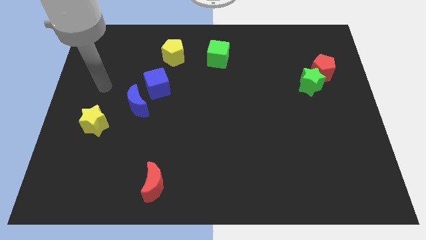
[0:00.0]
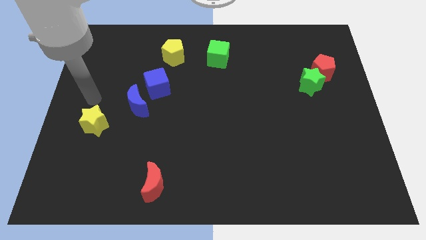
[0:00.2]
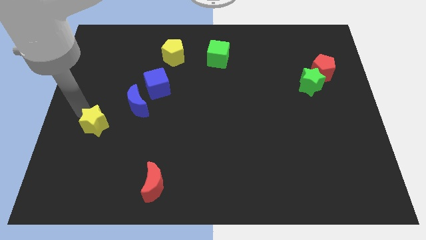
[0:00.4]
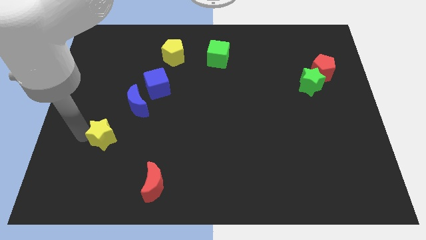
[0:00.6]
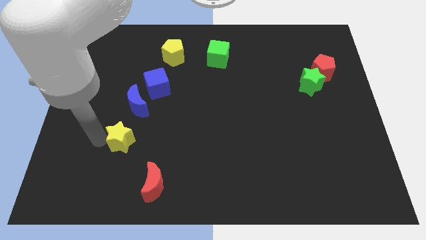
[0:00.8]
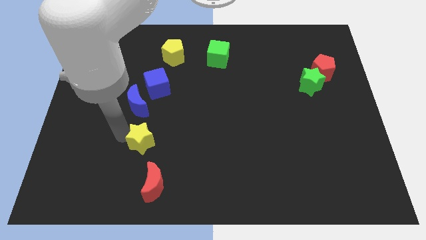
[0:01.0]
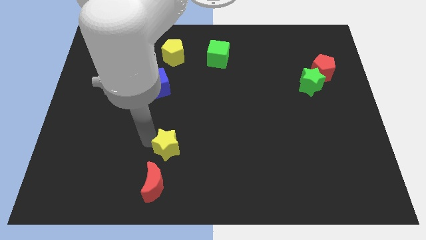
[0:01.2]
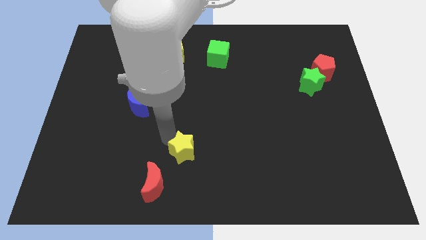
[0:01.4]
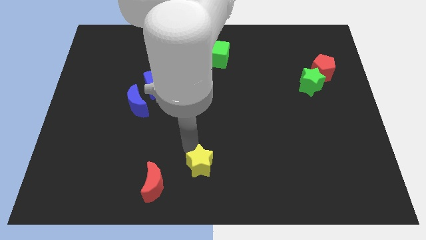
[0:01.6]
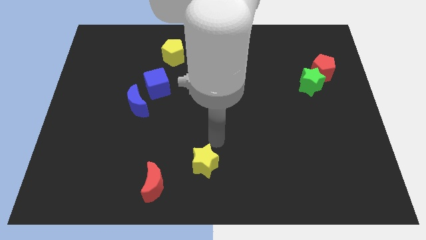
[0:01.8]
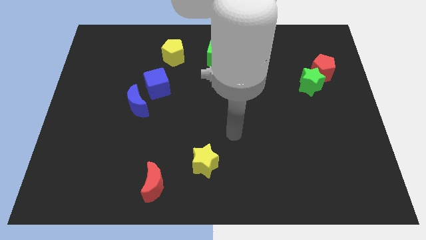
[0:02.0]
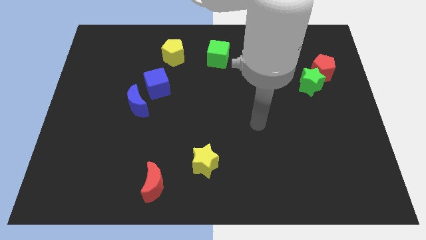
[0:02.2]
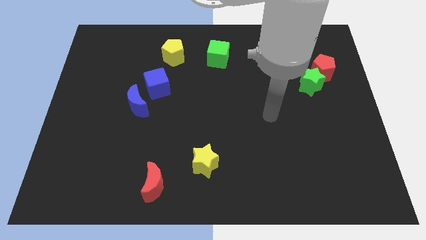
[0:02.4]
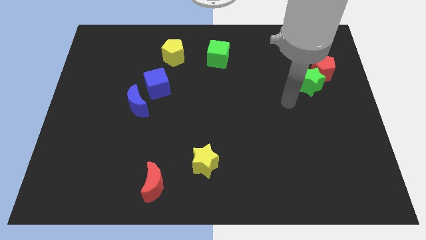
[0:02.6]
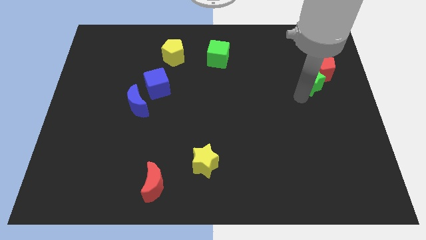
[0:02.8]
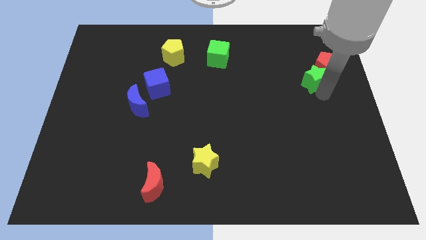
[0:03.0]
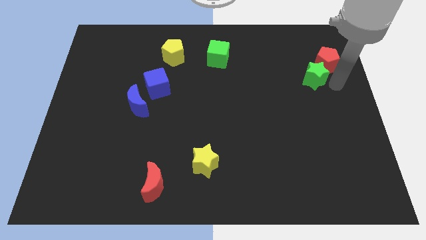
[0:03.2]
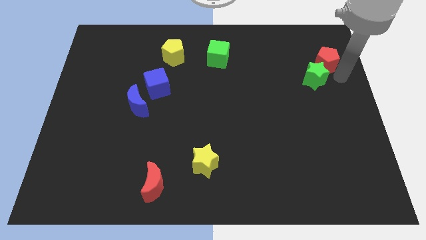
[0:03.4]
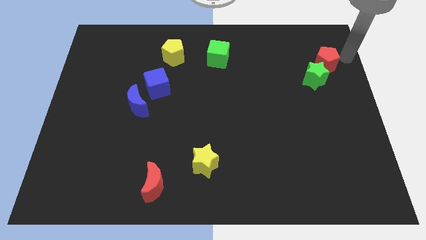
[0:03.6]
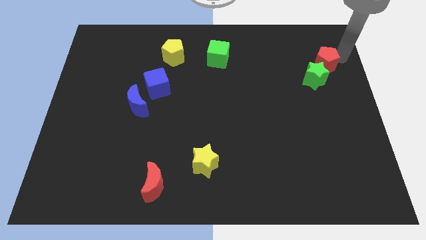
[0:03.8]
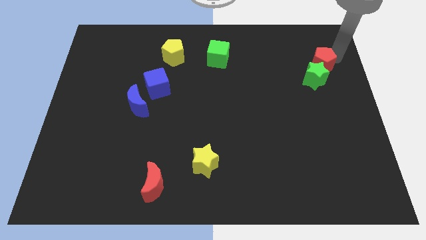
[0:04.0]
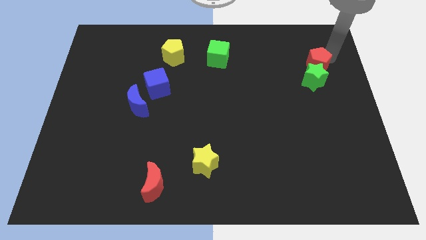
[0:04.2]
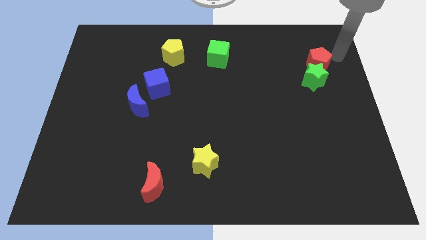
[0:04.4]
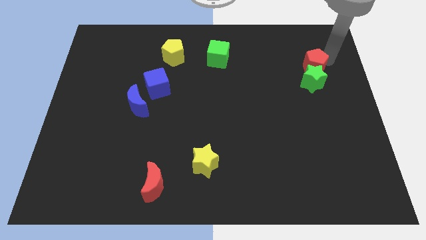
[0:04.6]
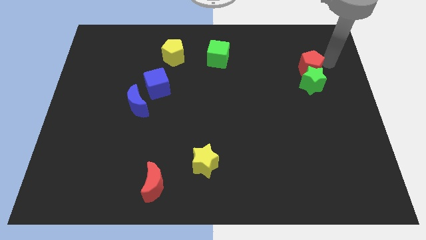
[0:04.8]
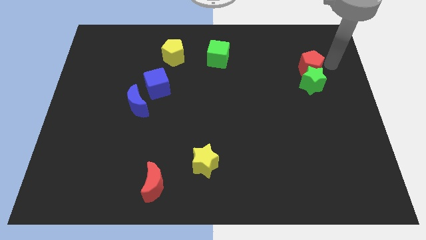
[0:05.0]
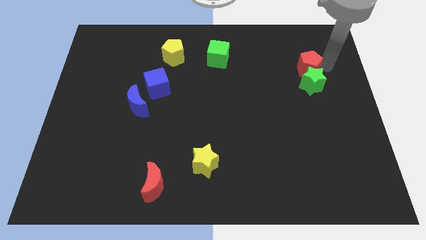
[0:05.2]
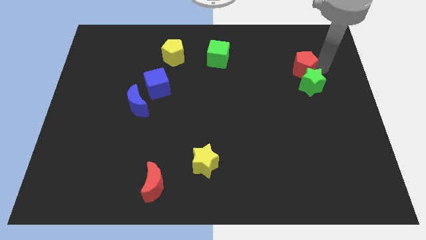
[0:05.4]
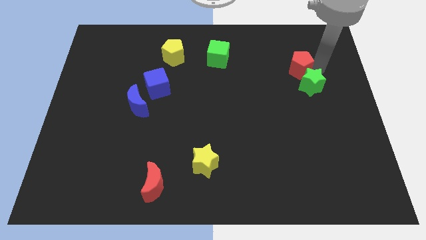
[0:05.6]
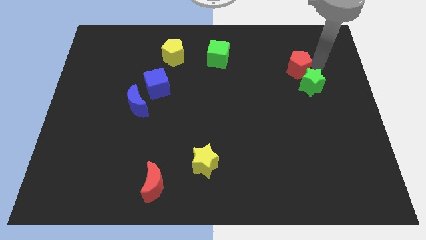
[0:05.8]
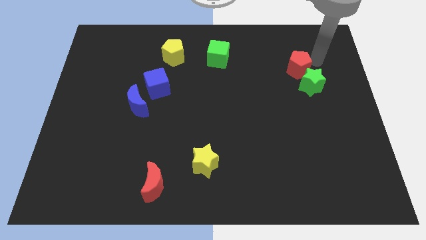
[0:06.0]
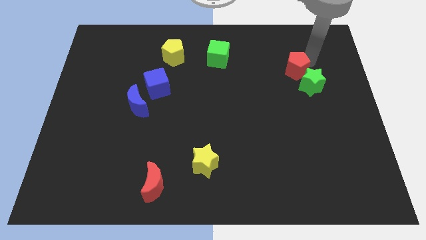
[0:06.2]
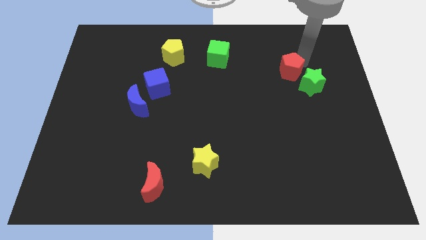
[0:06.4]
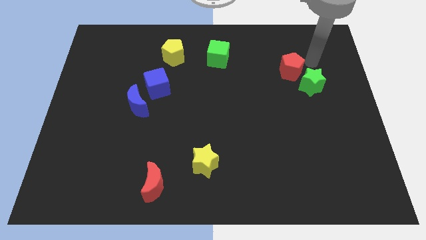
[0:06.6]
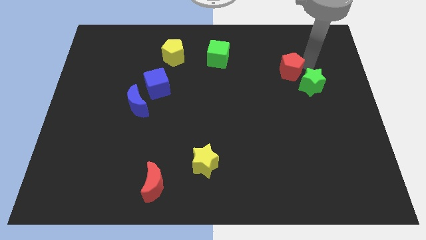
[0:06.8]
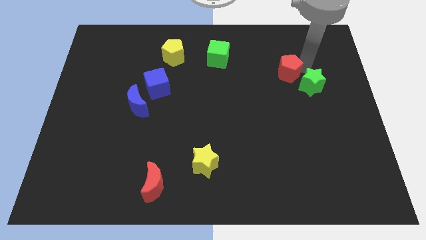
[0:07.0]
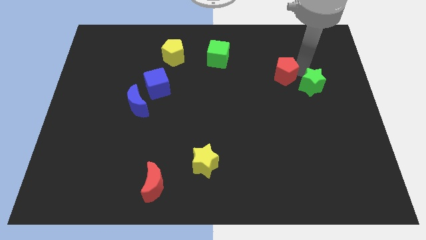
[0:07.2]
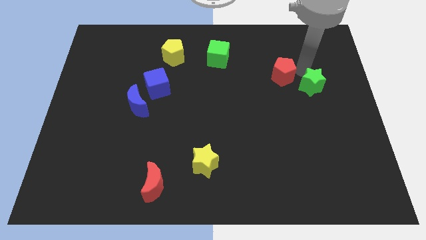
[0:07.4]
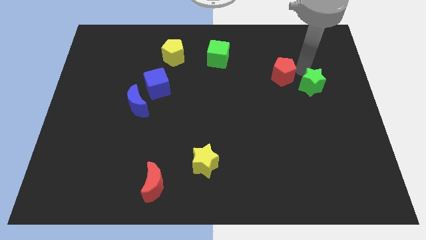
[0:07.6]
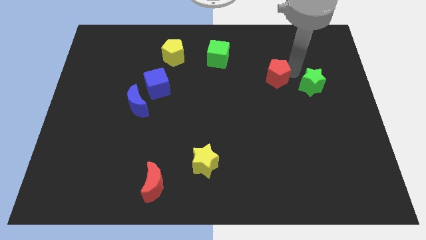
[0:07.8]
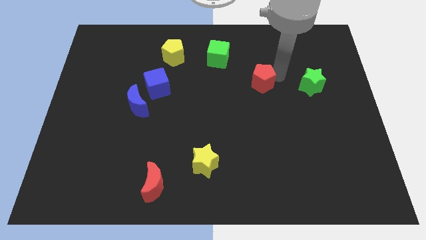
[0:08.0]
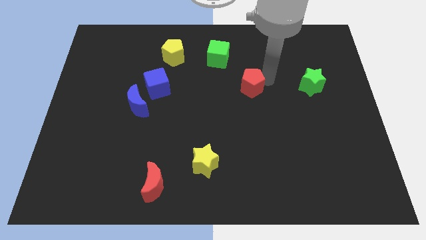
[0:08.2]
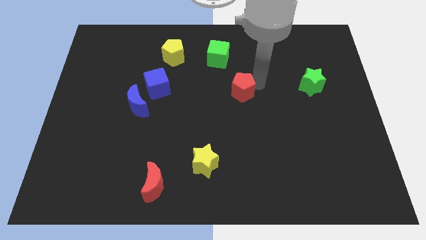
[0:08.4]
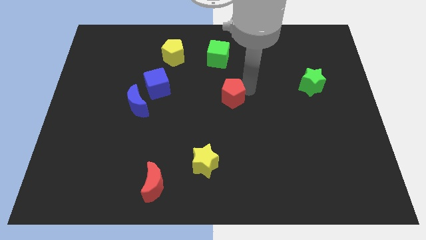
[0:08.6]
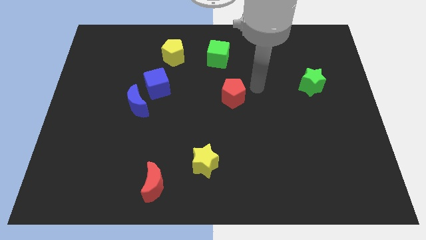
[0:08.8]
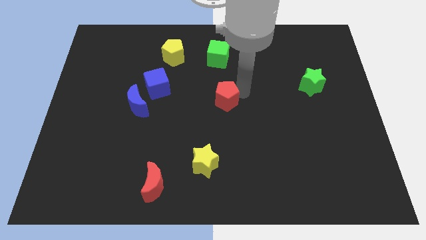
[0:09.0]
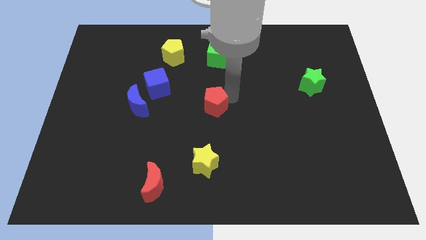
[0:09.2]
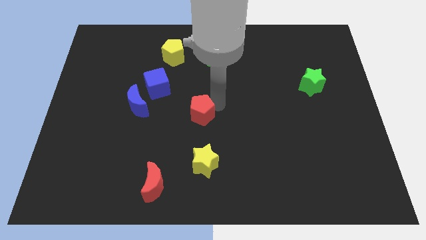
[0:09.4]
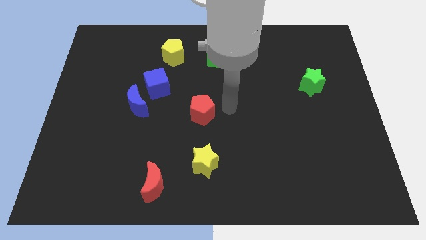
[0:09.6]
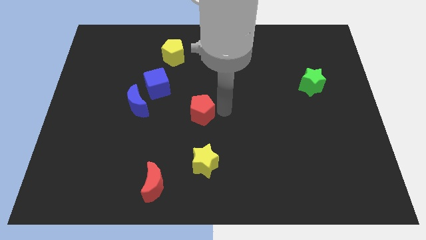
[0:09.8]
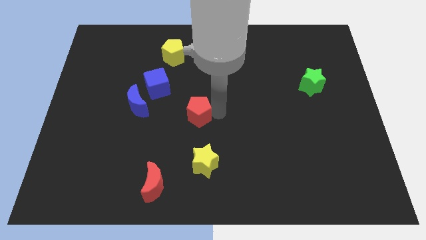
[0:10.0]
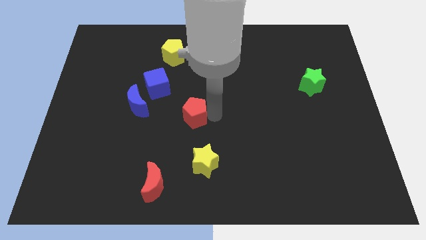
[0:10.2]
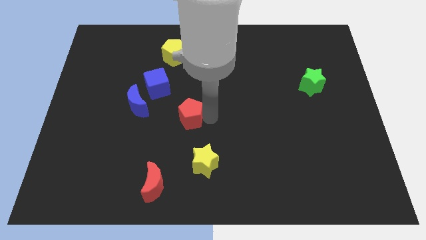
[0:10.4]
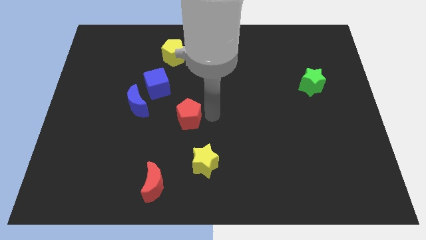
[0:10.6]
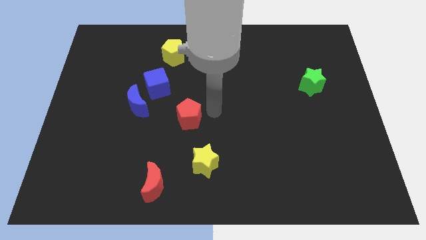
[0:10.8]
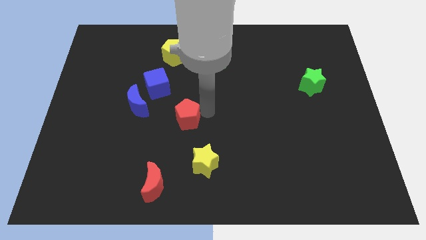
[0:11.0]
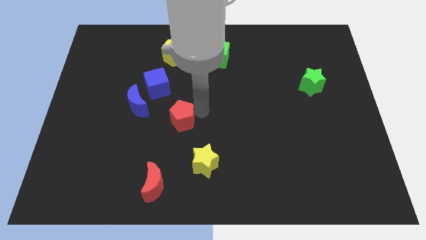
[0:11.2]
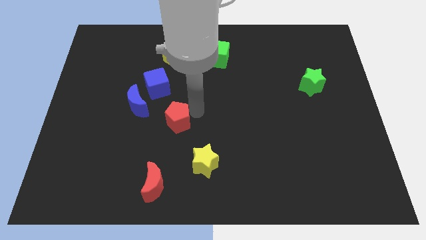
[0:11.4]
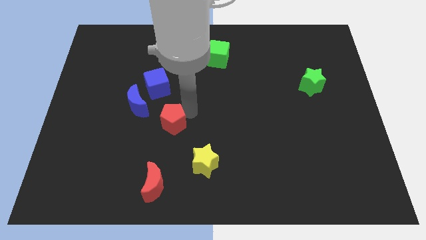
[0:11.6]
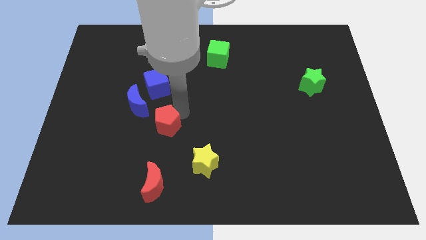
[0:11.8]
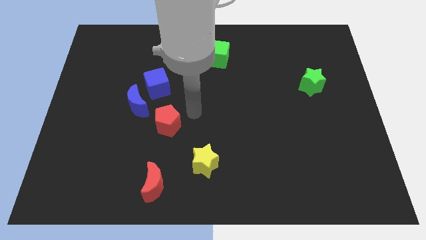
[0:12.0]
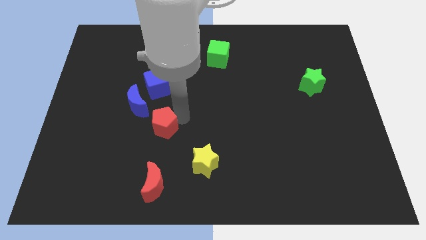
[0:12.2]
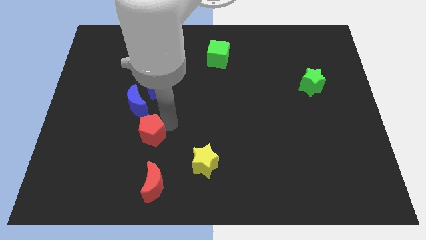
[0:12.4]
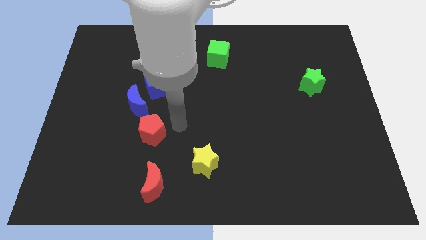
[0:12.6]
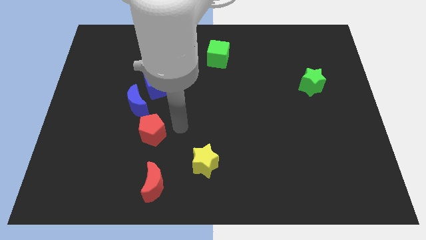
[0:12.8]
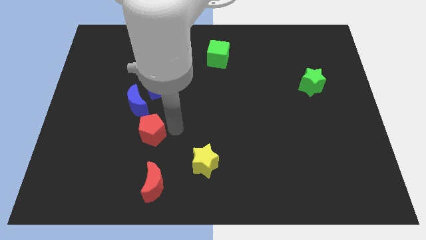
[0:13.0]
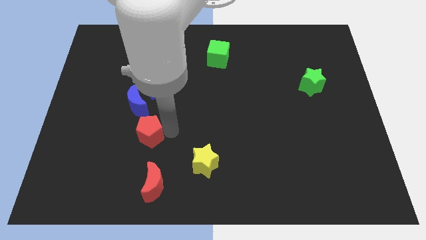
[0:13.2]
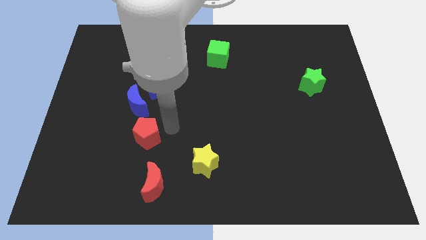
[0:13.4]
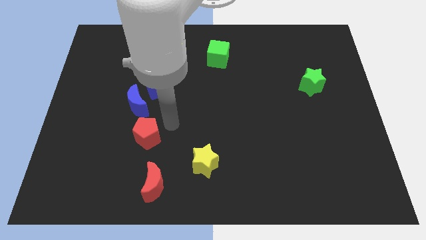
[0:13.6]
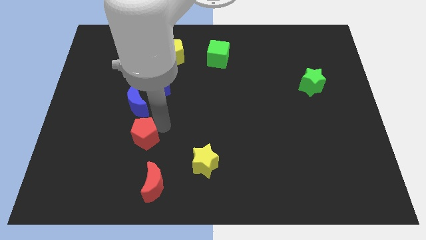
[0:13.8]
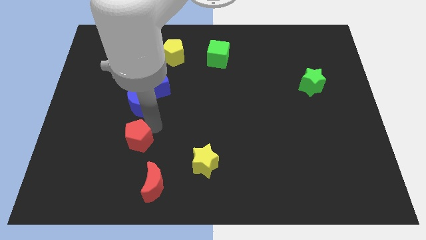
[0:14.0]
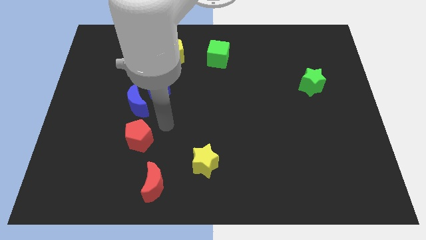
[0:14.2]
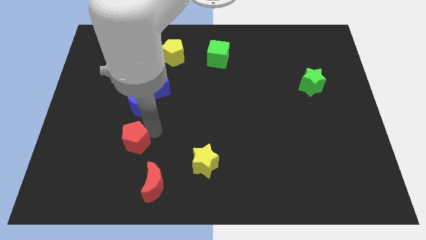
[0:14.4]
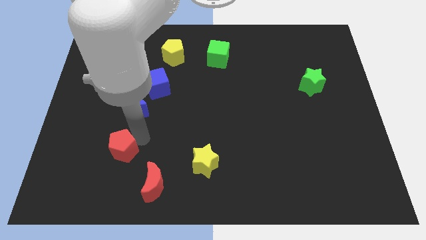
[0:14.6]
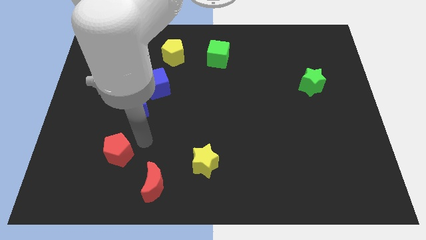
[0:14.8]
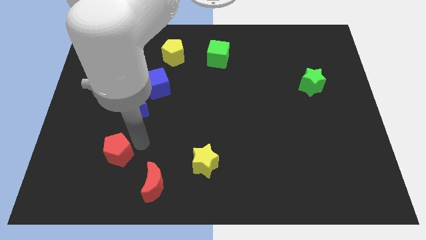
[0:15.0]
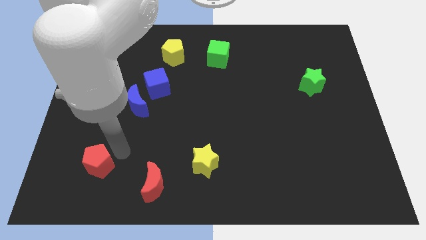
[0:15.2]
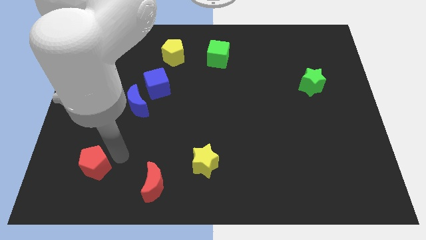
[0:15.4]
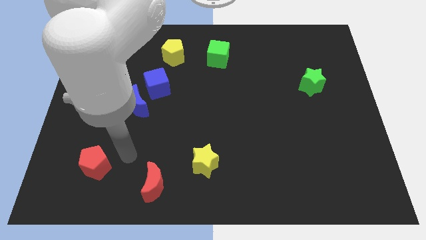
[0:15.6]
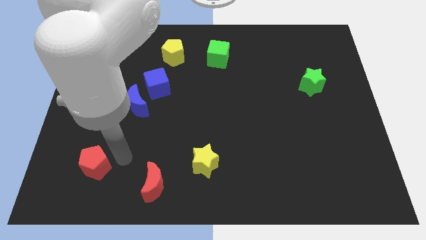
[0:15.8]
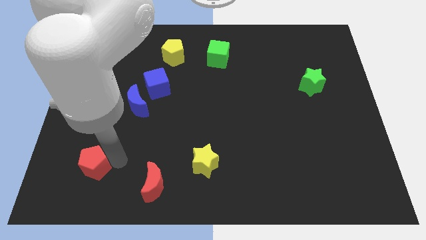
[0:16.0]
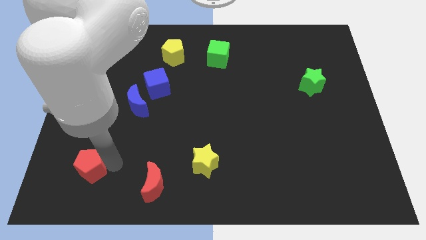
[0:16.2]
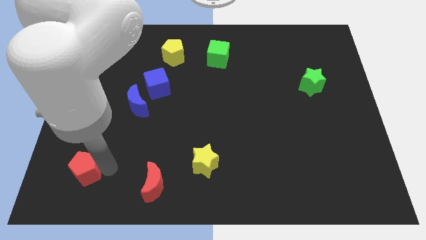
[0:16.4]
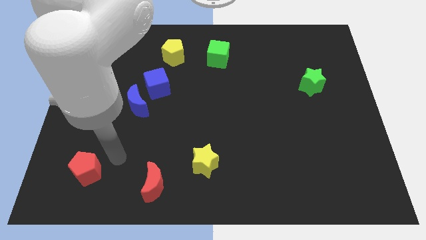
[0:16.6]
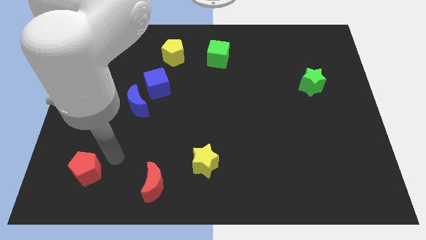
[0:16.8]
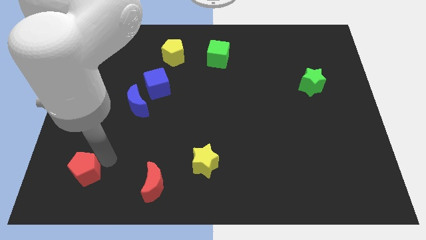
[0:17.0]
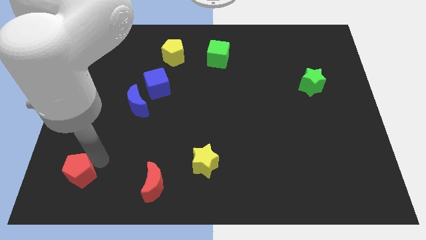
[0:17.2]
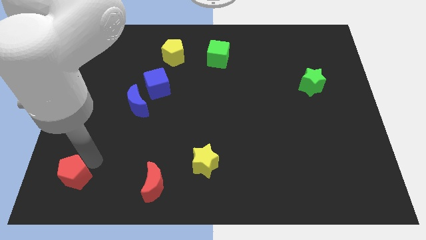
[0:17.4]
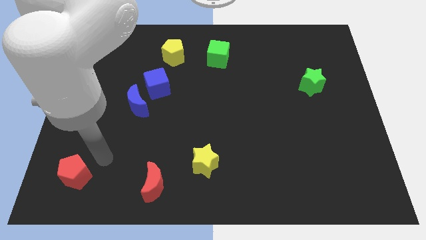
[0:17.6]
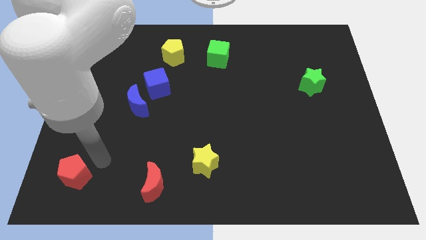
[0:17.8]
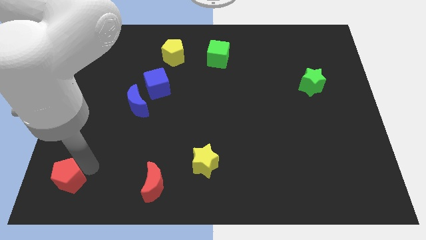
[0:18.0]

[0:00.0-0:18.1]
slide the red pentagon to the bottom left corner
